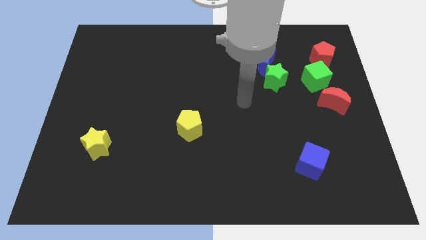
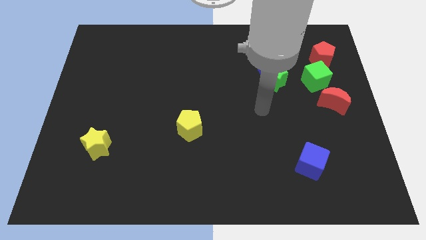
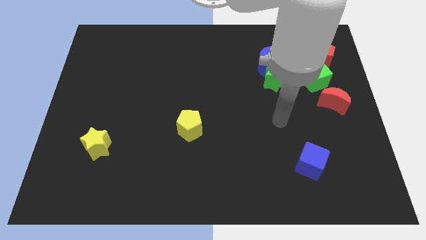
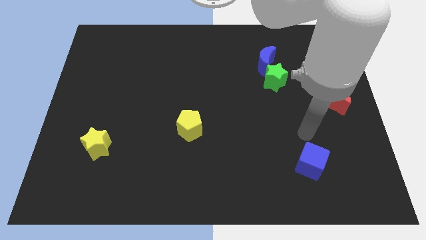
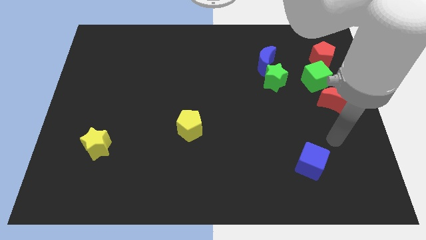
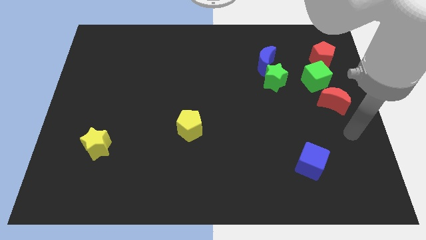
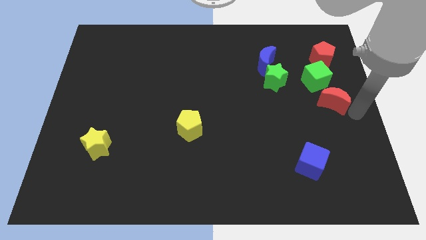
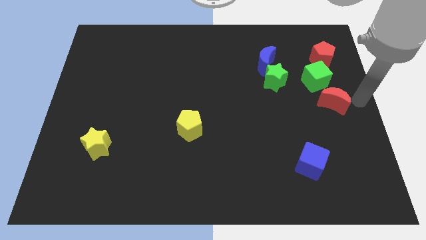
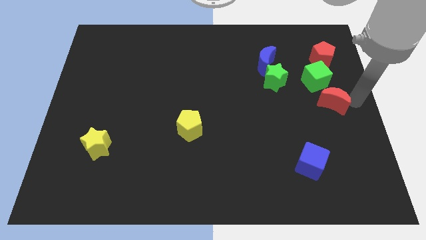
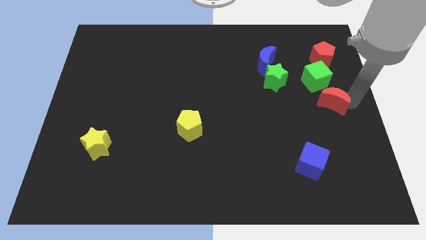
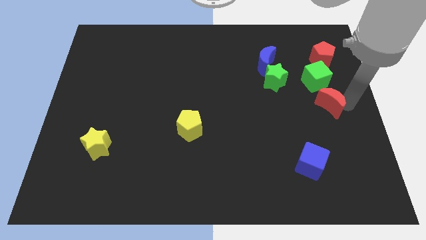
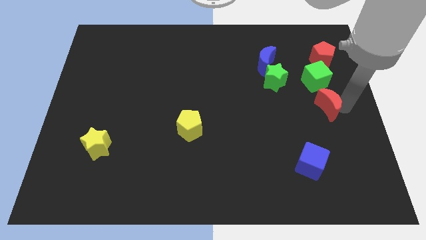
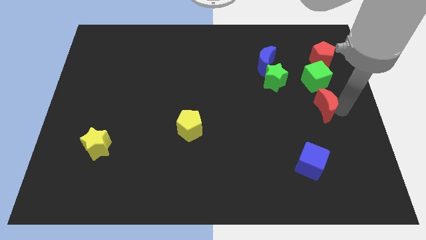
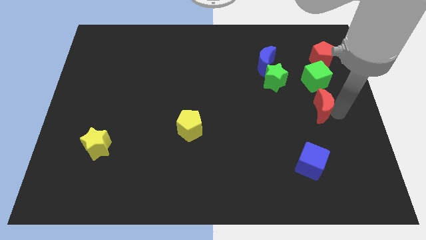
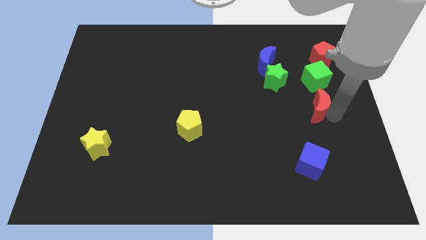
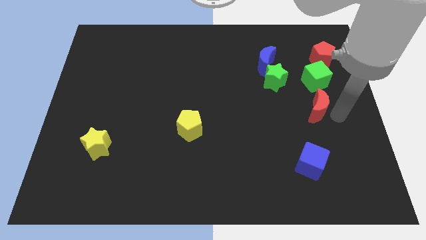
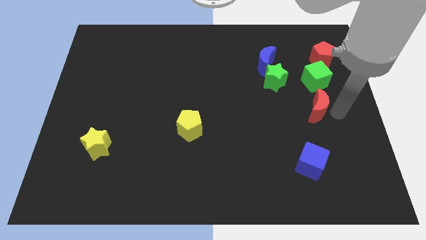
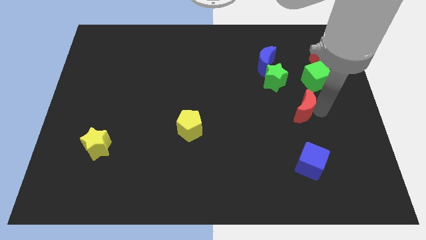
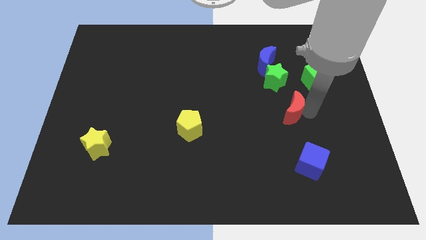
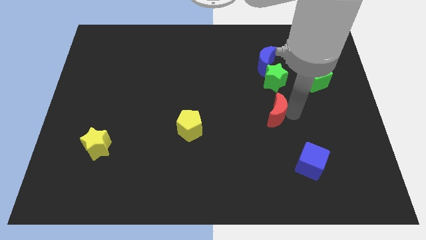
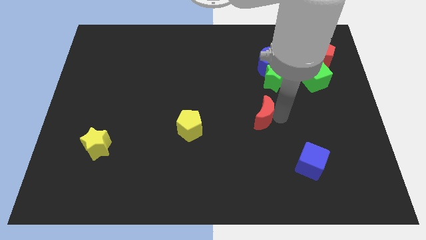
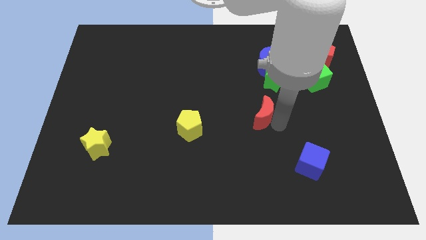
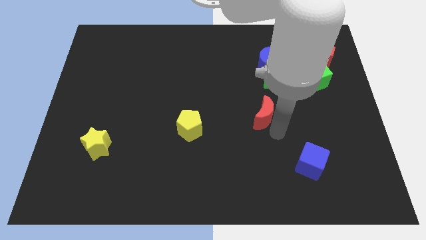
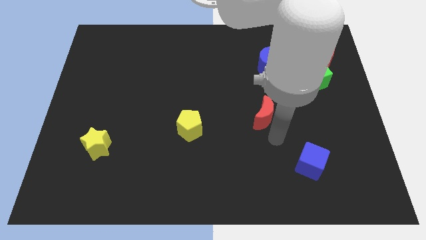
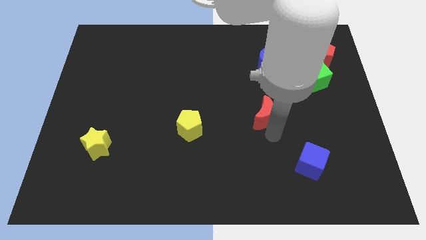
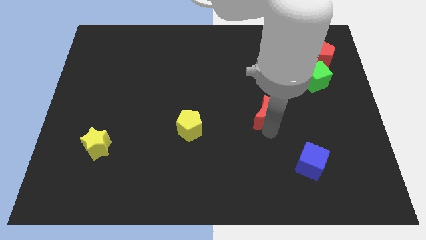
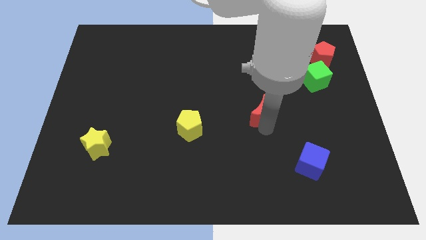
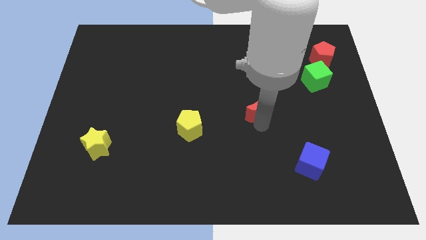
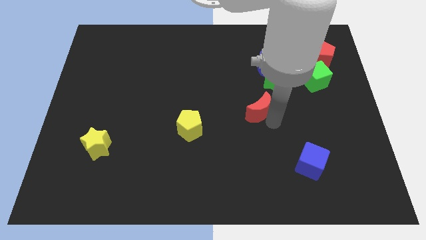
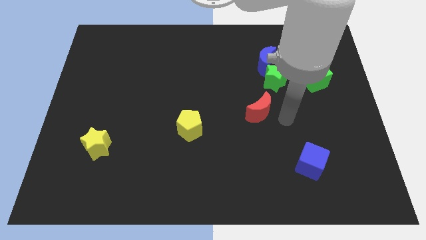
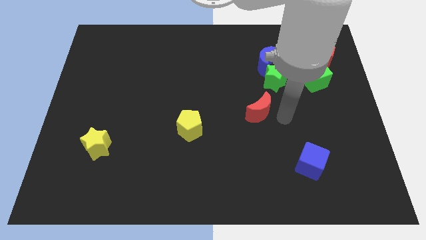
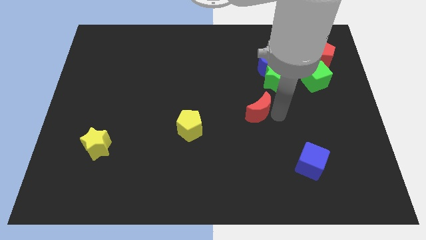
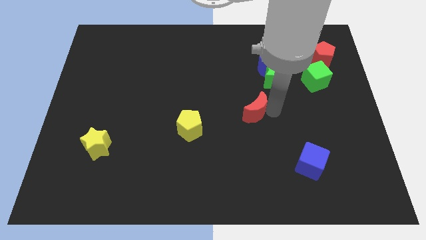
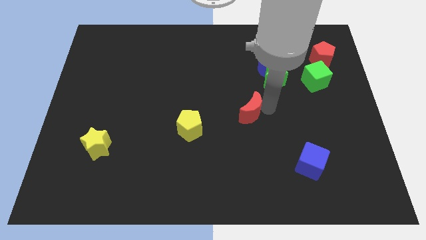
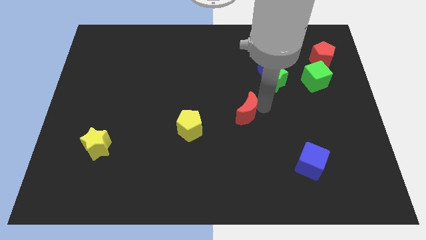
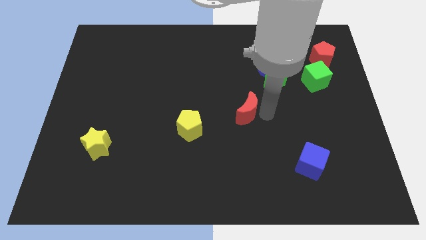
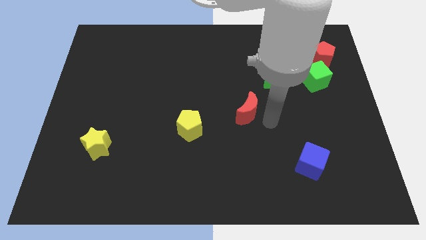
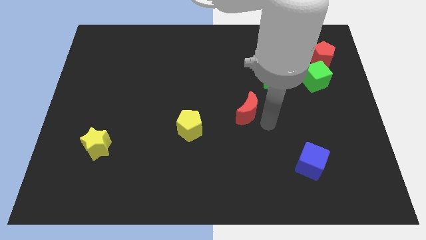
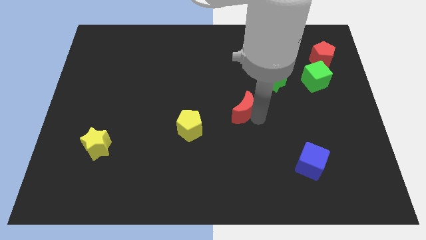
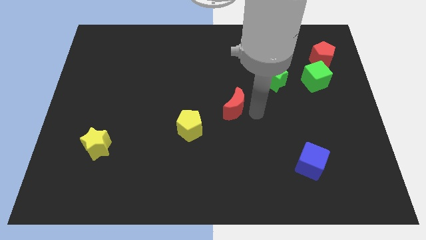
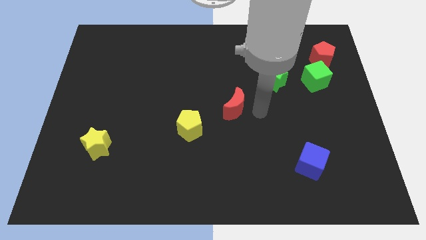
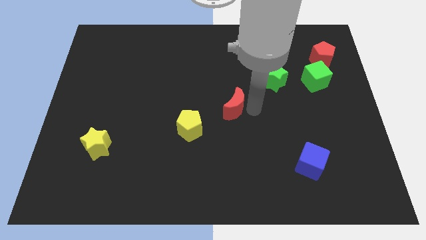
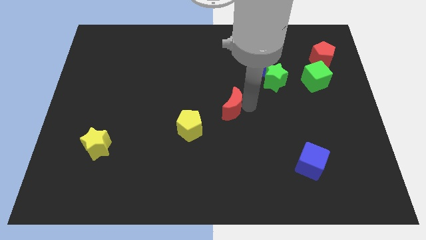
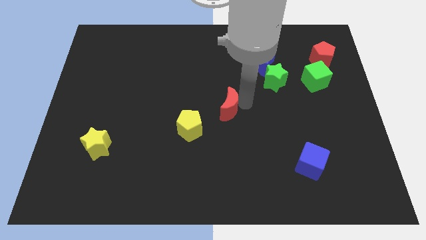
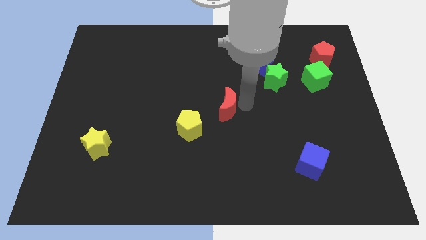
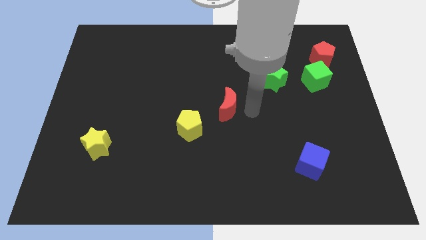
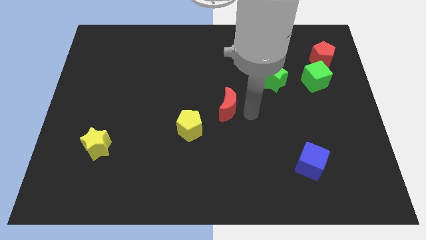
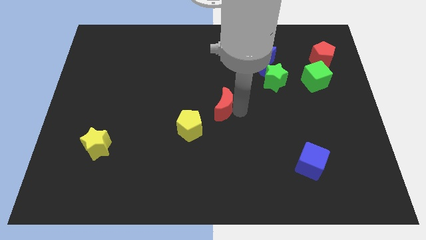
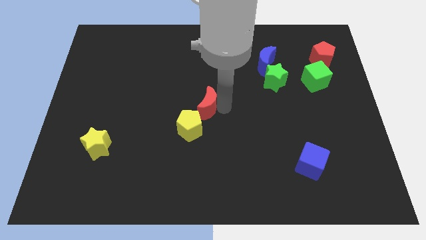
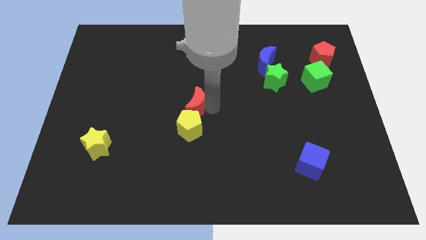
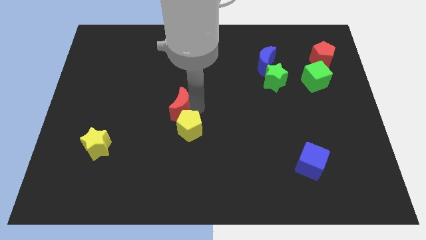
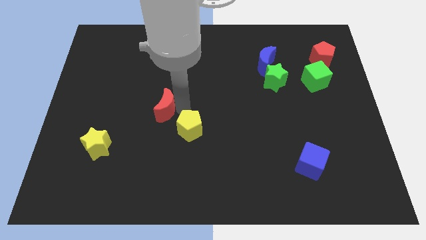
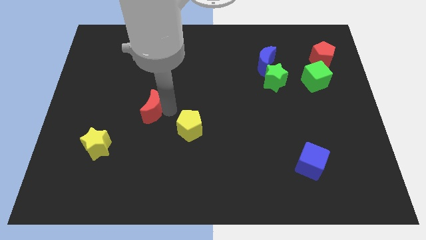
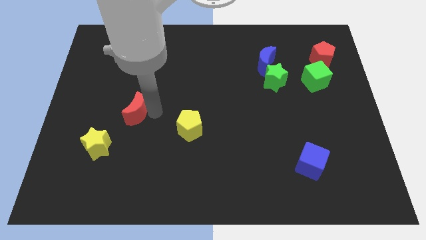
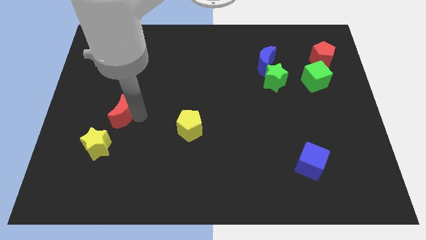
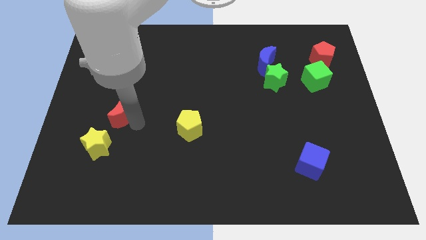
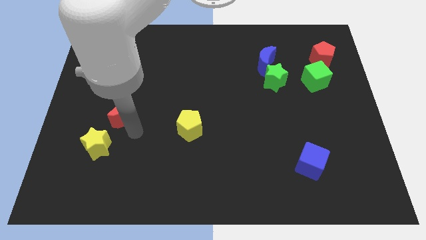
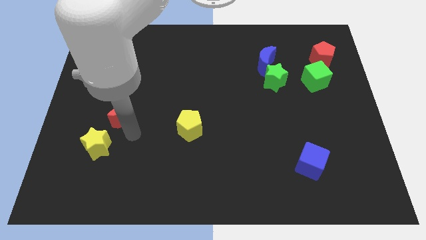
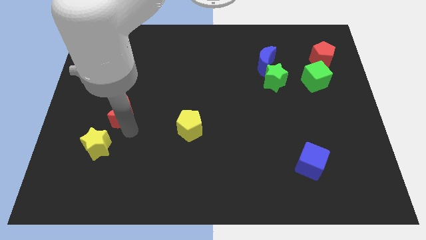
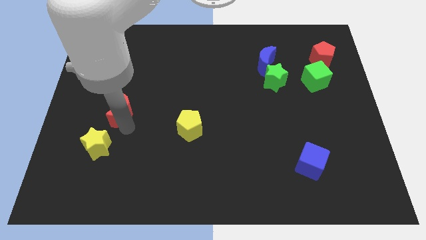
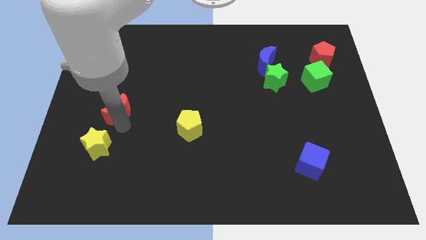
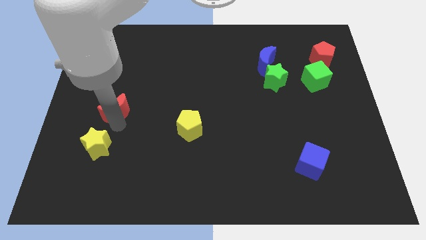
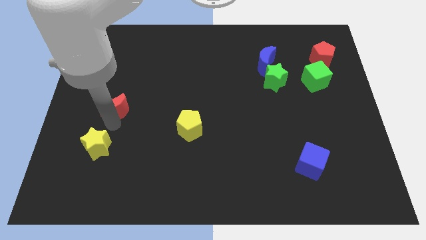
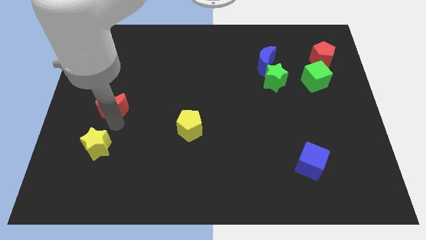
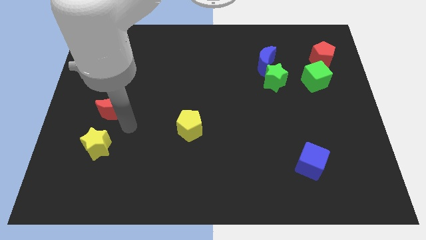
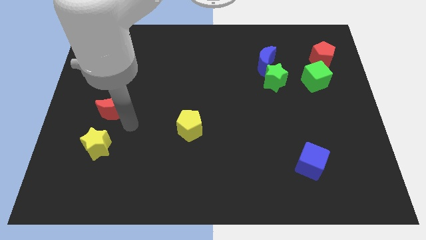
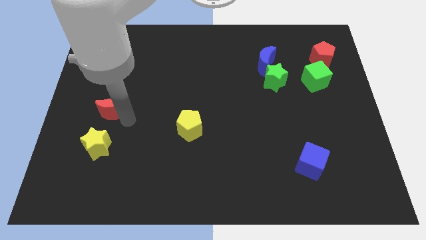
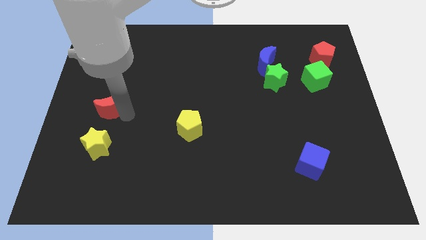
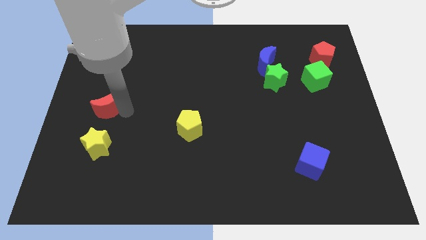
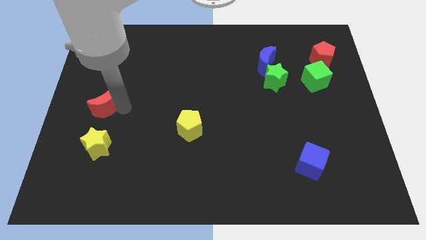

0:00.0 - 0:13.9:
slide the red moon to the left side of the board
